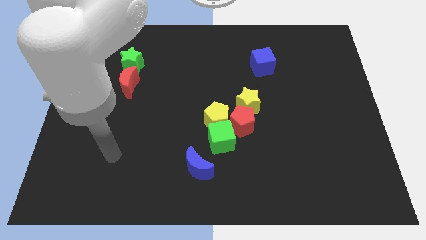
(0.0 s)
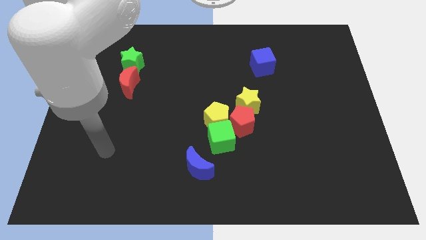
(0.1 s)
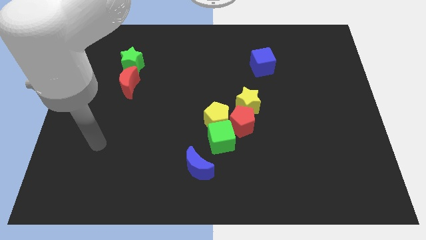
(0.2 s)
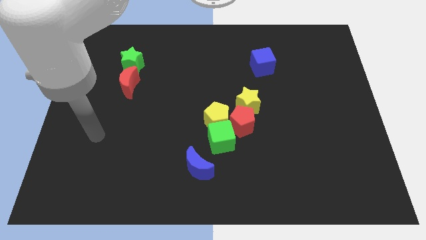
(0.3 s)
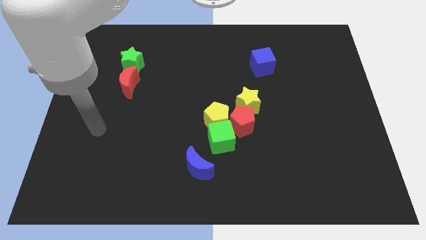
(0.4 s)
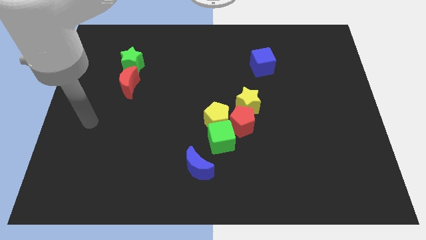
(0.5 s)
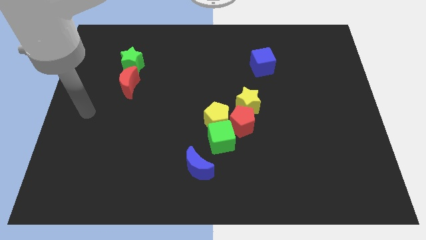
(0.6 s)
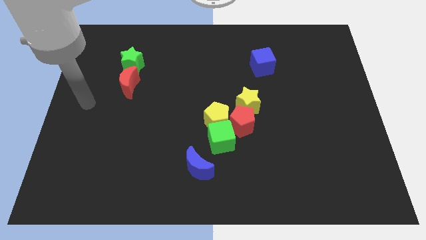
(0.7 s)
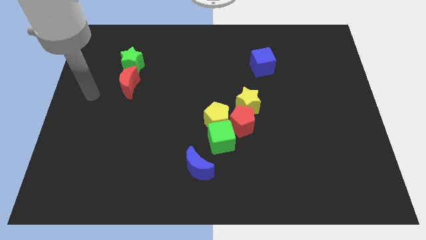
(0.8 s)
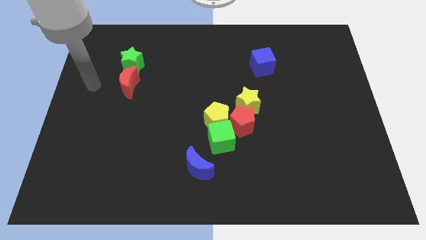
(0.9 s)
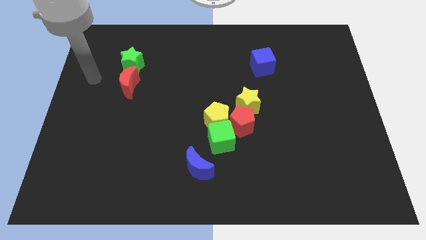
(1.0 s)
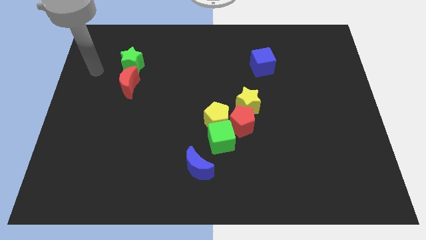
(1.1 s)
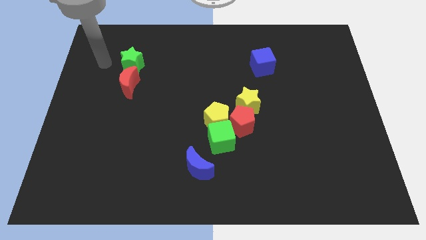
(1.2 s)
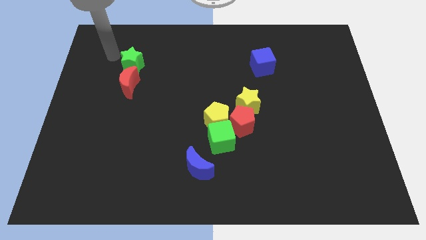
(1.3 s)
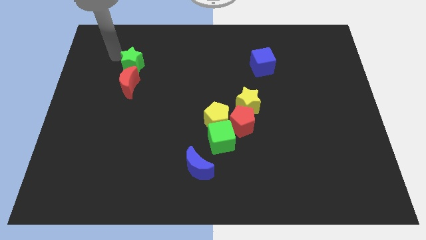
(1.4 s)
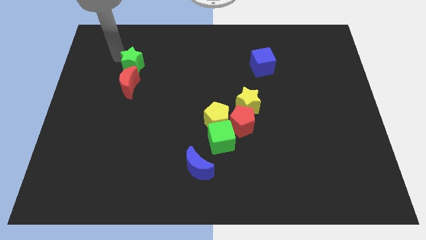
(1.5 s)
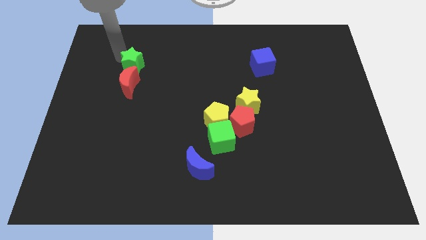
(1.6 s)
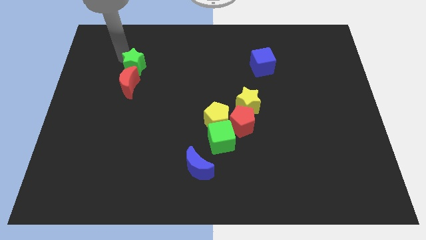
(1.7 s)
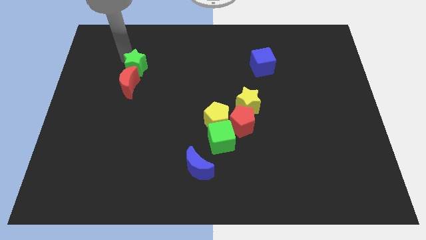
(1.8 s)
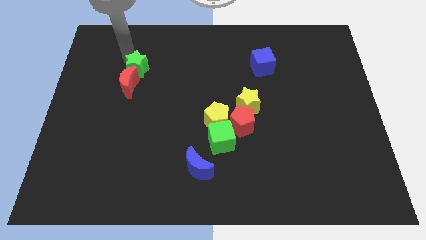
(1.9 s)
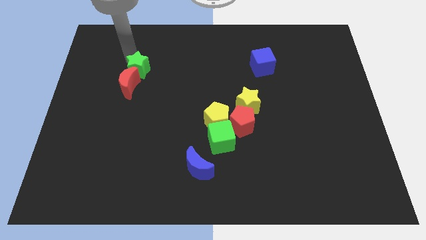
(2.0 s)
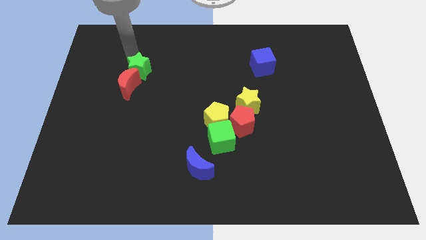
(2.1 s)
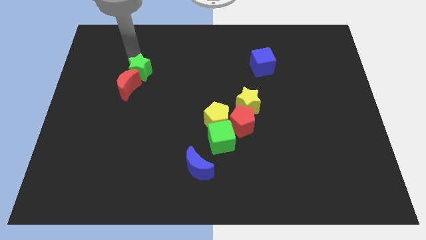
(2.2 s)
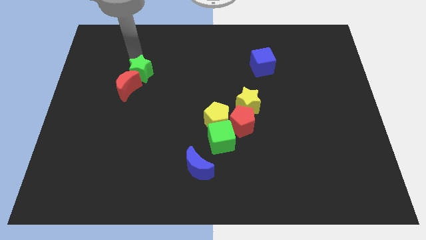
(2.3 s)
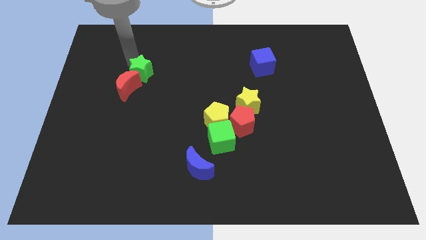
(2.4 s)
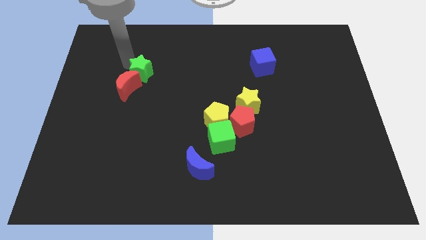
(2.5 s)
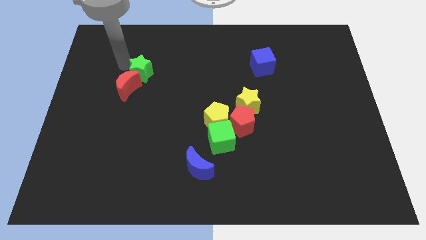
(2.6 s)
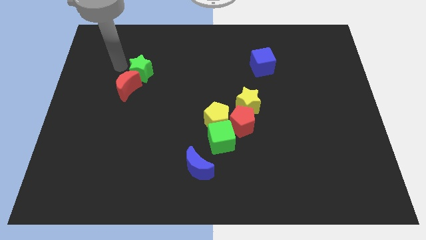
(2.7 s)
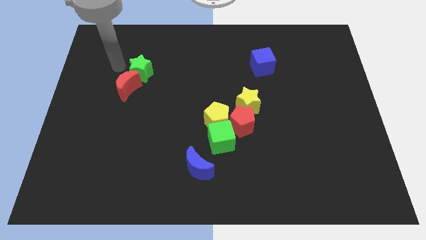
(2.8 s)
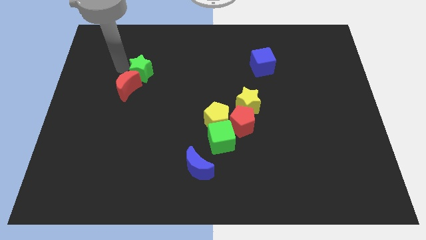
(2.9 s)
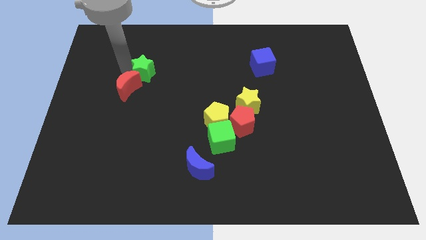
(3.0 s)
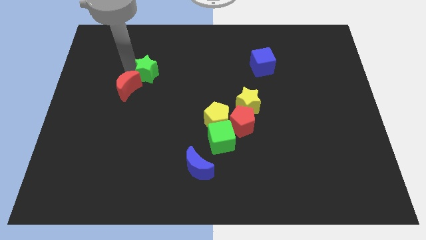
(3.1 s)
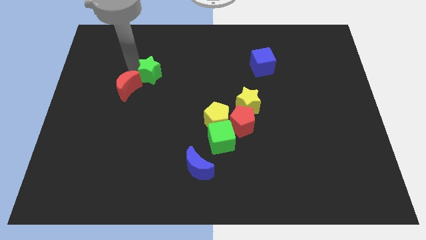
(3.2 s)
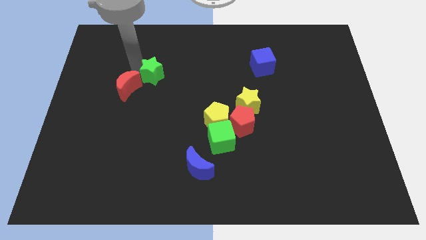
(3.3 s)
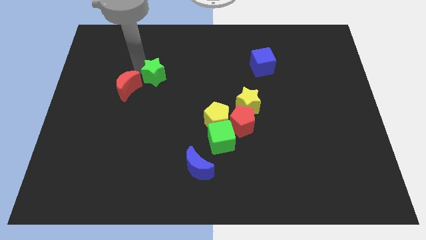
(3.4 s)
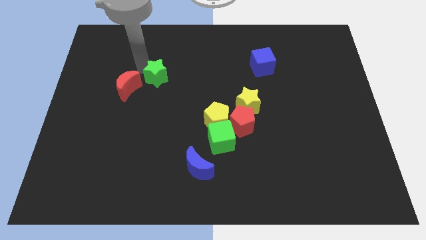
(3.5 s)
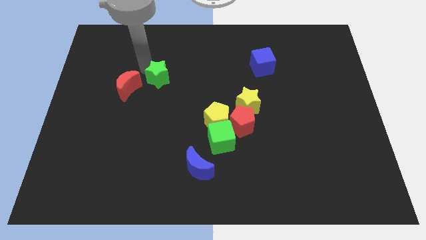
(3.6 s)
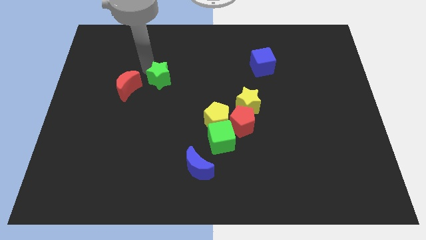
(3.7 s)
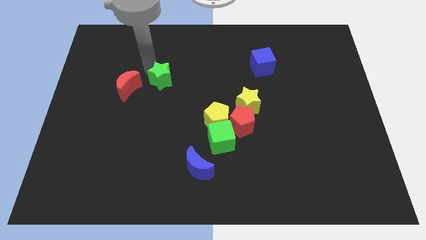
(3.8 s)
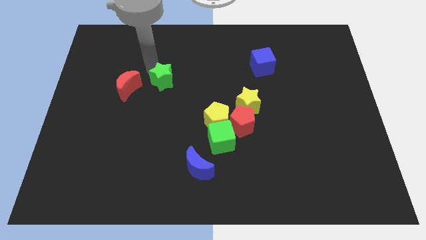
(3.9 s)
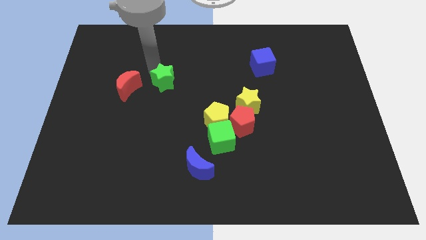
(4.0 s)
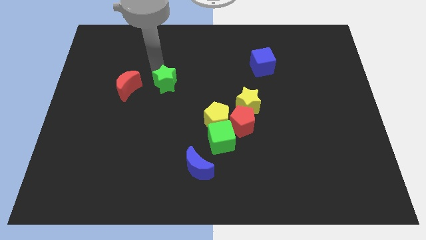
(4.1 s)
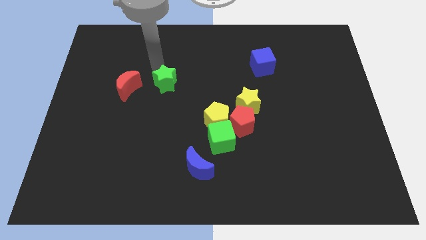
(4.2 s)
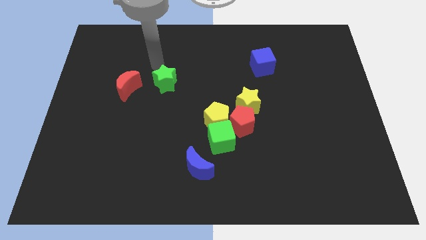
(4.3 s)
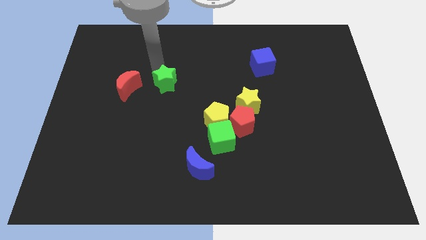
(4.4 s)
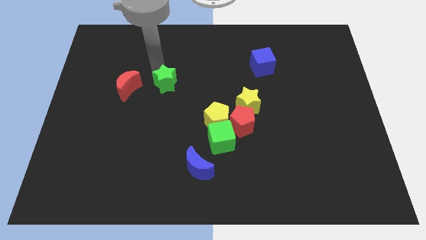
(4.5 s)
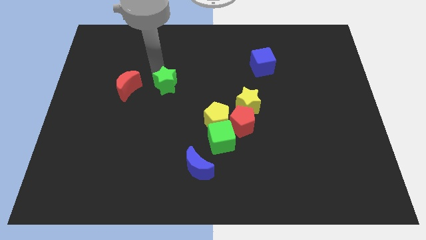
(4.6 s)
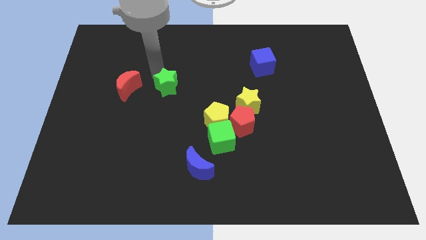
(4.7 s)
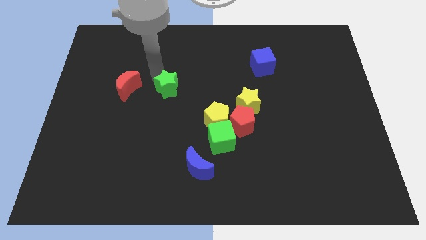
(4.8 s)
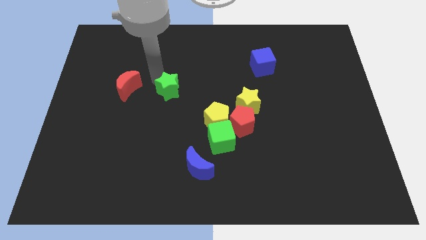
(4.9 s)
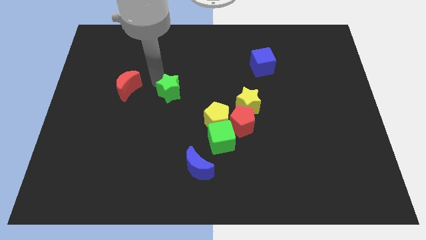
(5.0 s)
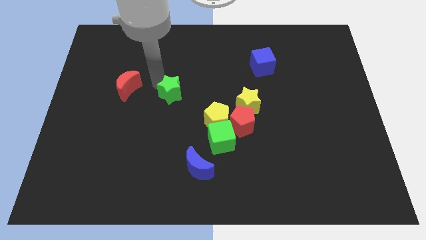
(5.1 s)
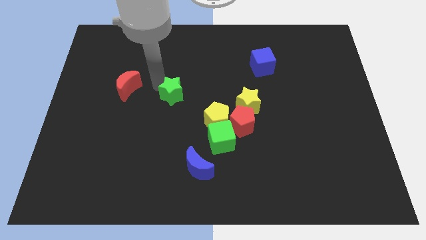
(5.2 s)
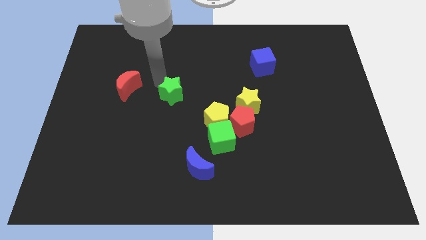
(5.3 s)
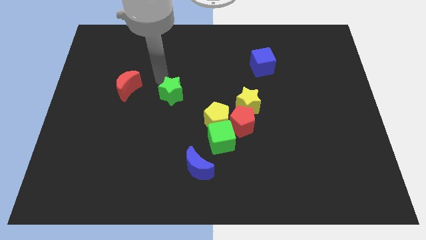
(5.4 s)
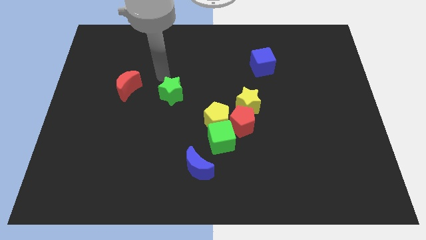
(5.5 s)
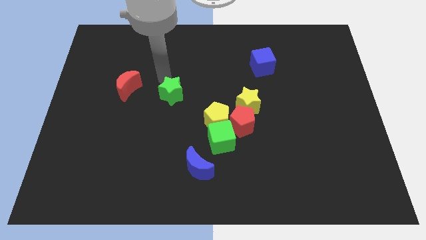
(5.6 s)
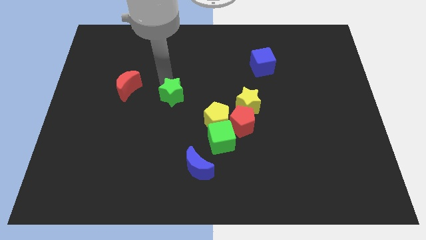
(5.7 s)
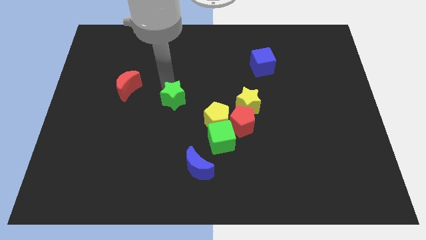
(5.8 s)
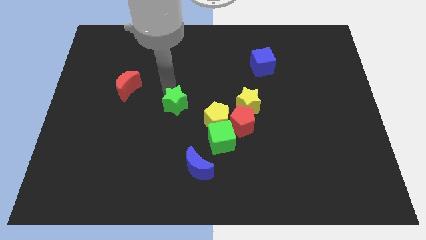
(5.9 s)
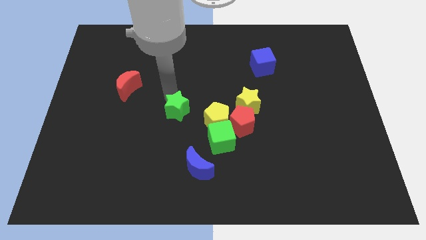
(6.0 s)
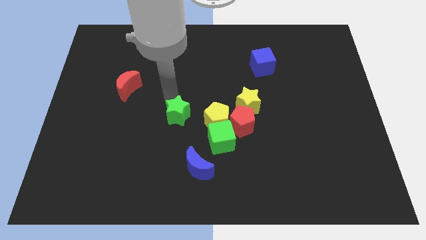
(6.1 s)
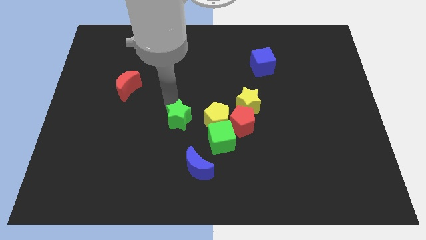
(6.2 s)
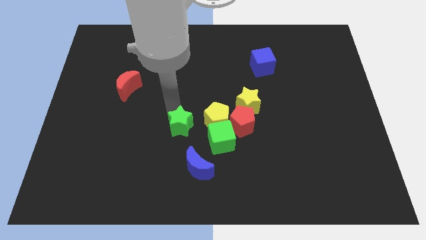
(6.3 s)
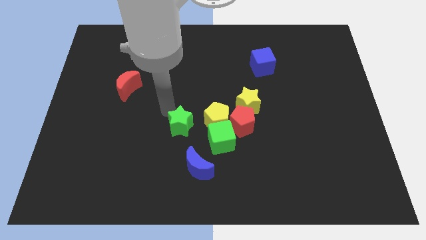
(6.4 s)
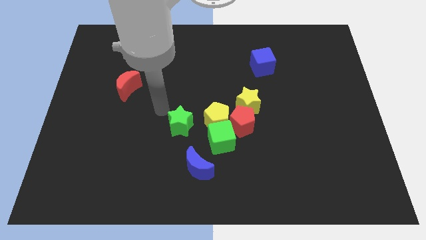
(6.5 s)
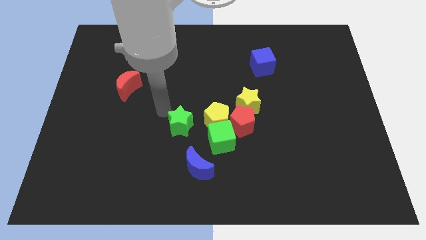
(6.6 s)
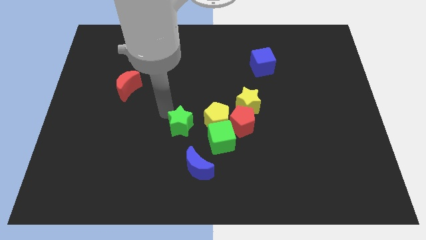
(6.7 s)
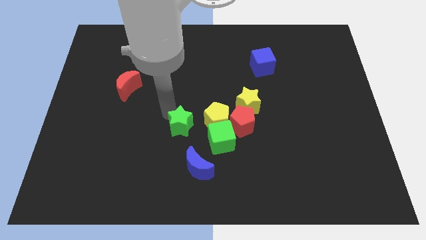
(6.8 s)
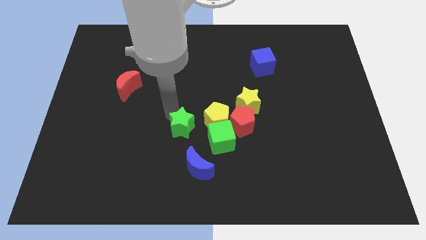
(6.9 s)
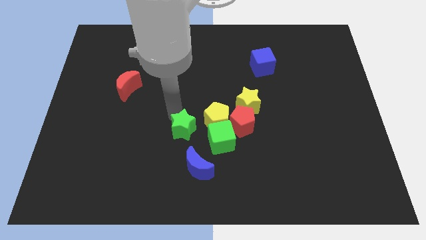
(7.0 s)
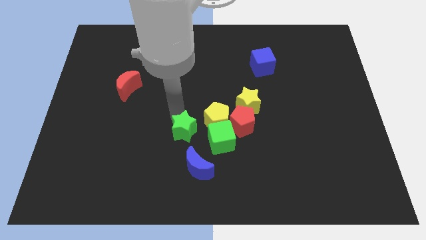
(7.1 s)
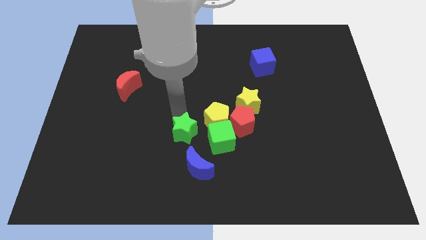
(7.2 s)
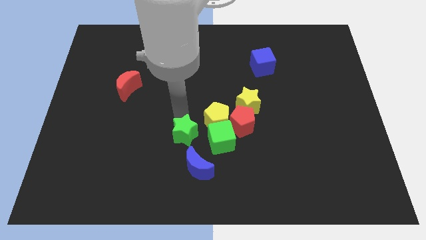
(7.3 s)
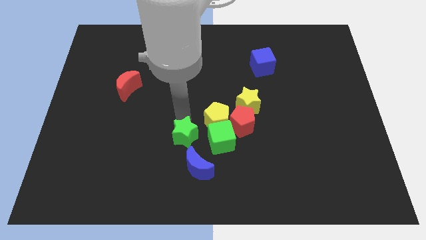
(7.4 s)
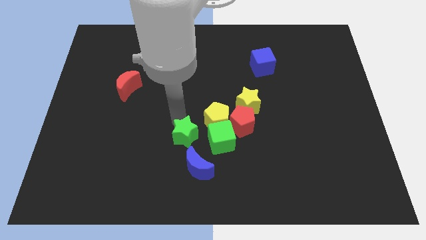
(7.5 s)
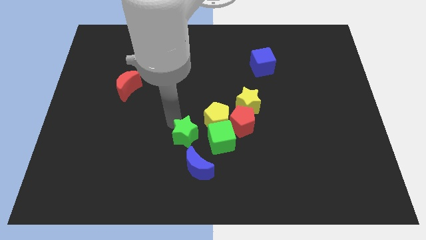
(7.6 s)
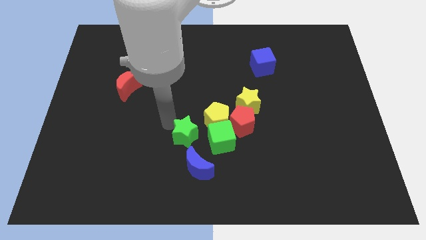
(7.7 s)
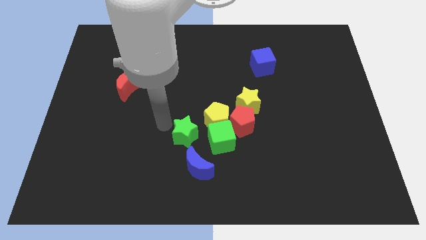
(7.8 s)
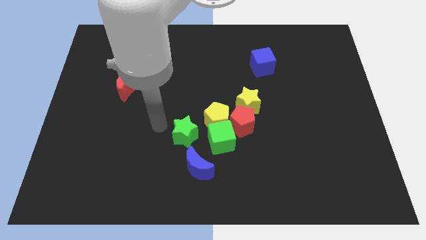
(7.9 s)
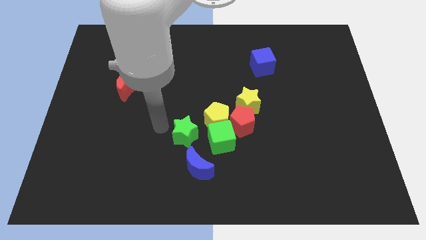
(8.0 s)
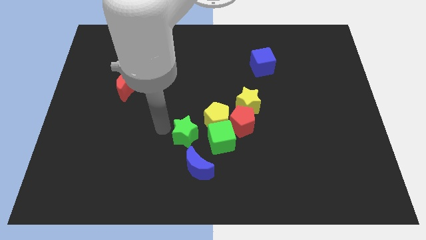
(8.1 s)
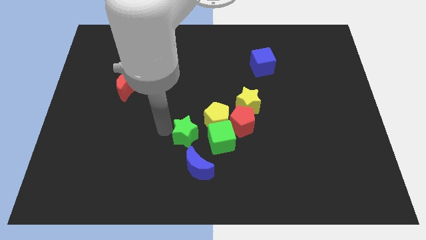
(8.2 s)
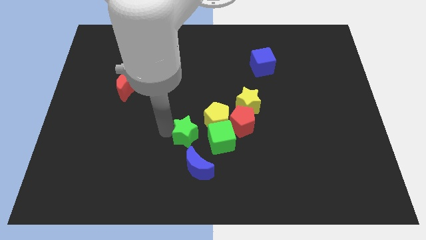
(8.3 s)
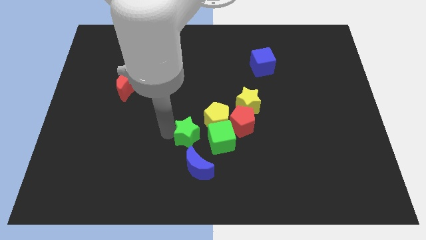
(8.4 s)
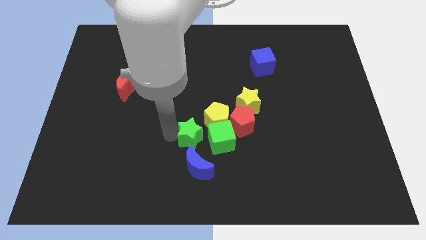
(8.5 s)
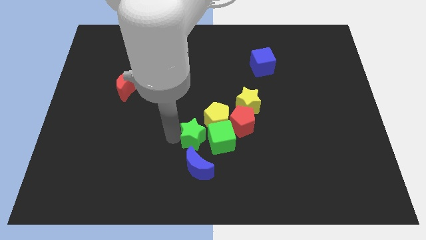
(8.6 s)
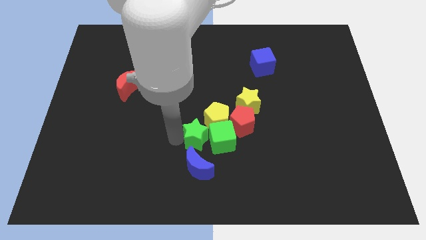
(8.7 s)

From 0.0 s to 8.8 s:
push the green star next to the green cube
